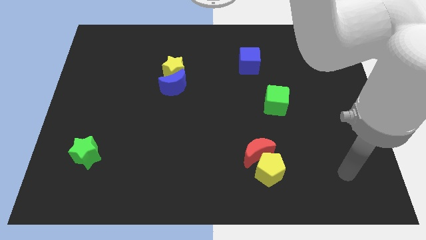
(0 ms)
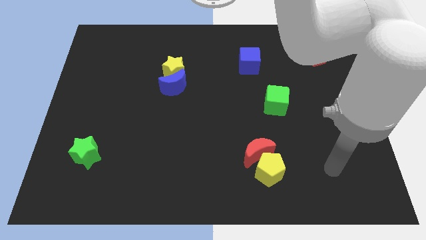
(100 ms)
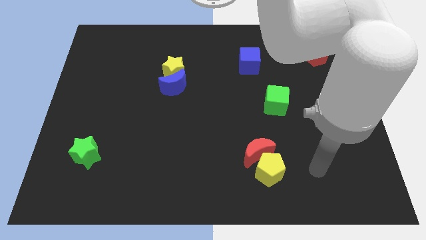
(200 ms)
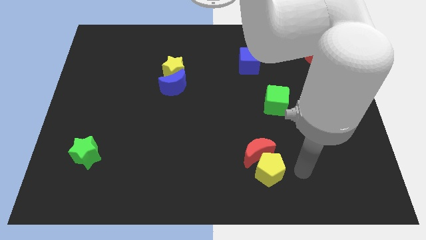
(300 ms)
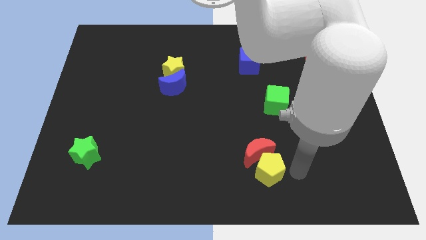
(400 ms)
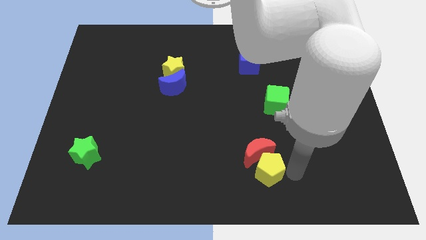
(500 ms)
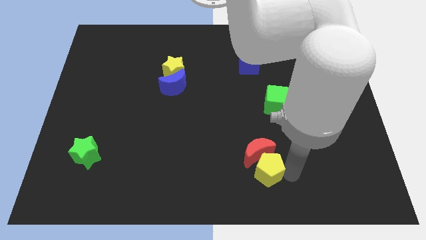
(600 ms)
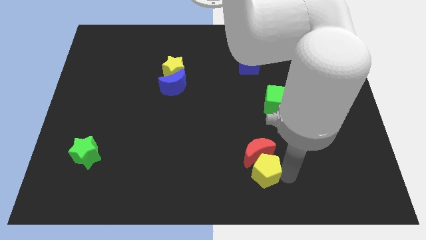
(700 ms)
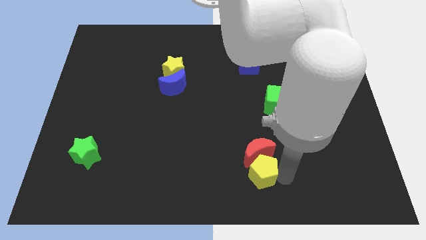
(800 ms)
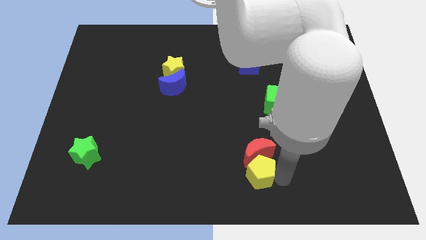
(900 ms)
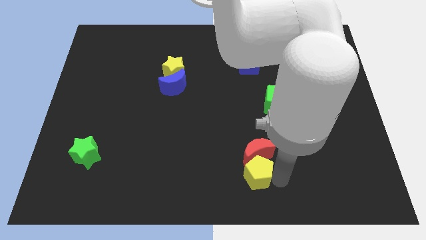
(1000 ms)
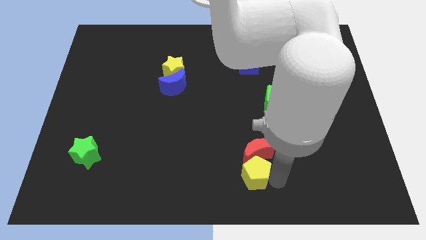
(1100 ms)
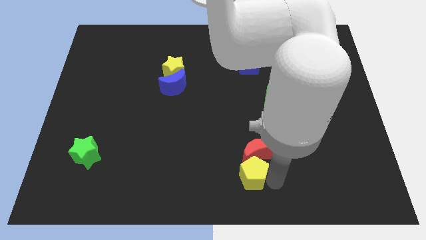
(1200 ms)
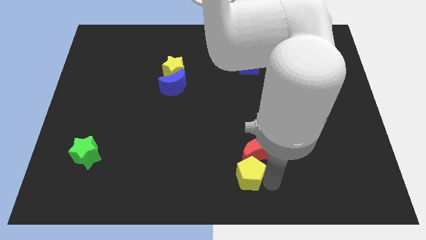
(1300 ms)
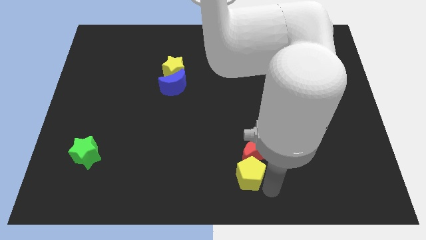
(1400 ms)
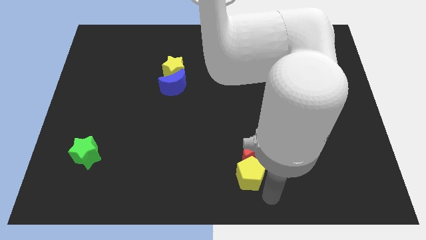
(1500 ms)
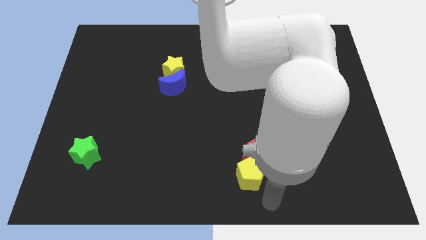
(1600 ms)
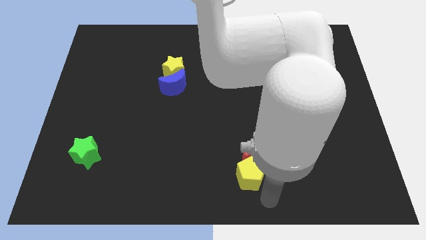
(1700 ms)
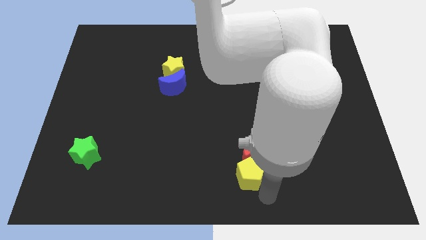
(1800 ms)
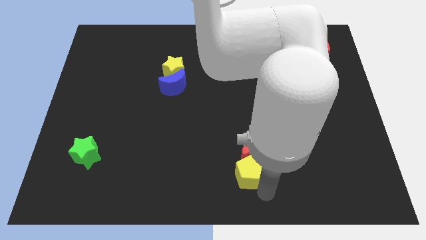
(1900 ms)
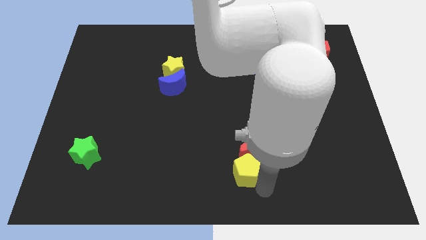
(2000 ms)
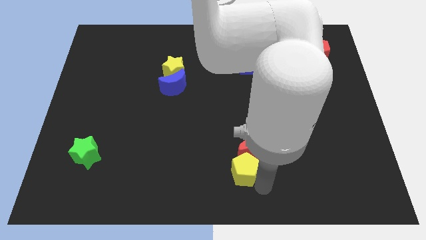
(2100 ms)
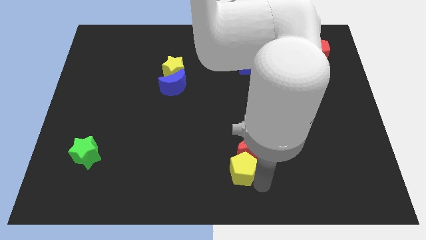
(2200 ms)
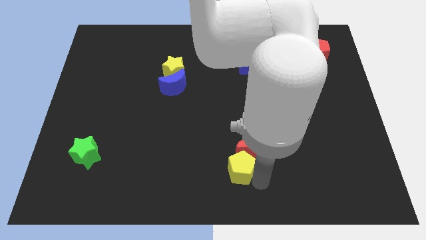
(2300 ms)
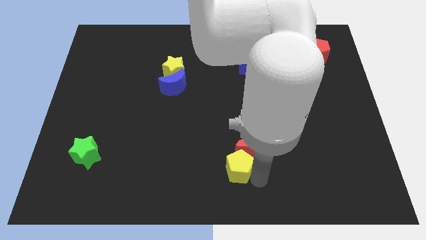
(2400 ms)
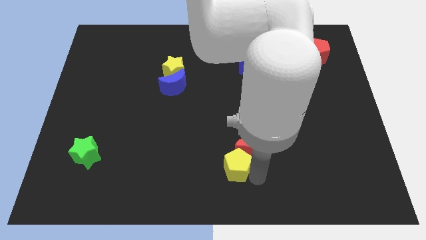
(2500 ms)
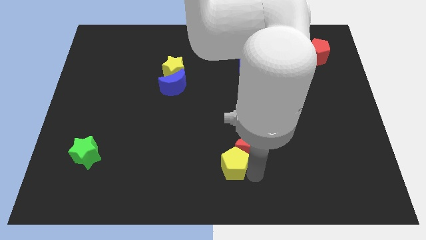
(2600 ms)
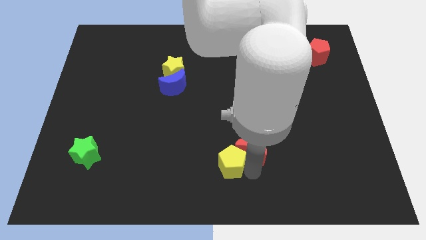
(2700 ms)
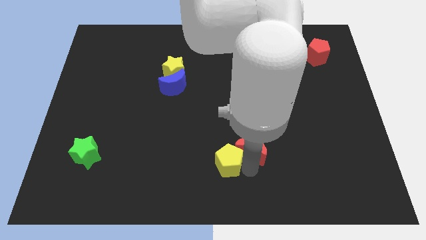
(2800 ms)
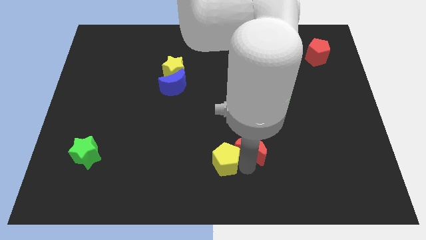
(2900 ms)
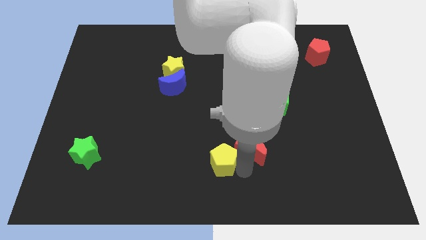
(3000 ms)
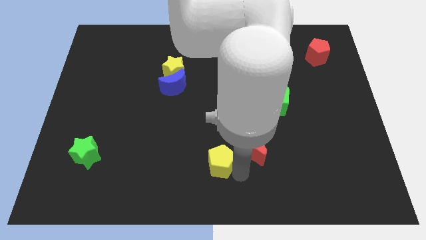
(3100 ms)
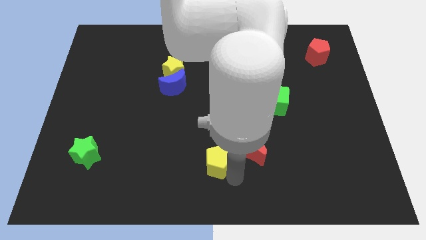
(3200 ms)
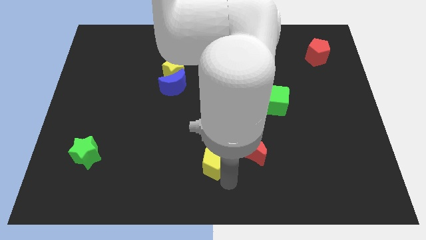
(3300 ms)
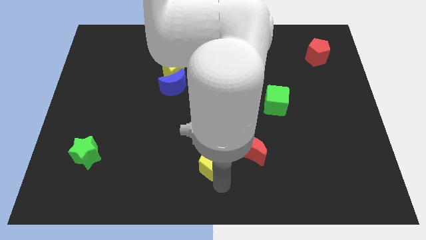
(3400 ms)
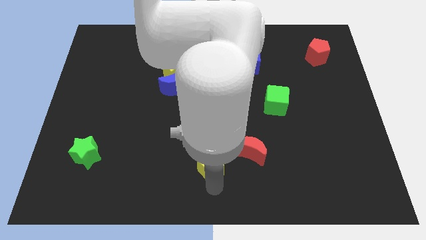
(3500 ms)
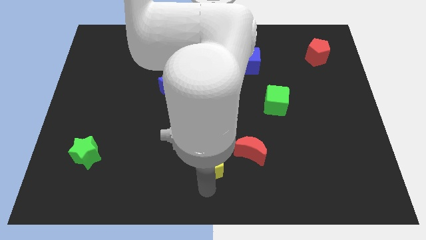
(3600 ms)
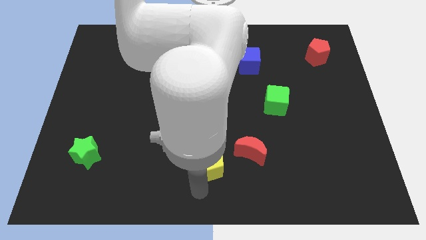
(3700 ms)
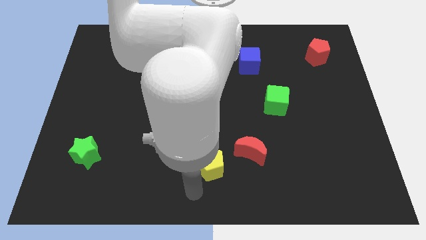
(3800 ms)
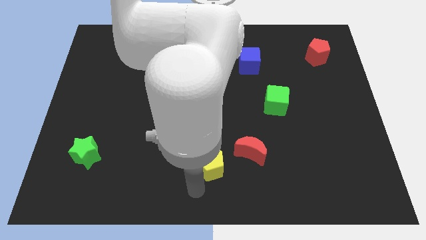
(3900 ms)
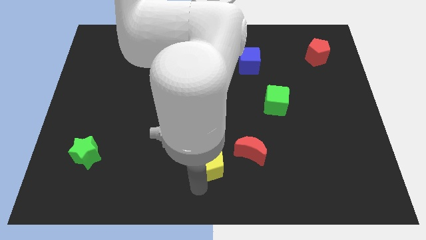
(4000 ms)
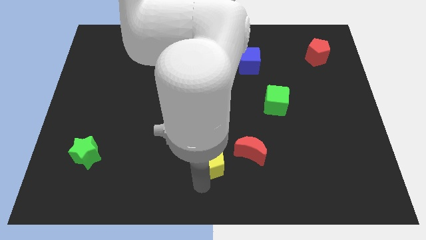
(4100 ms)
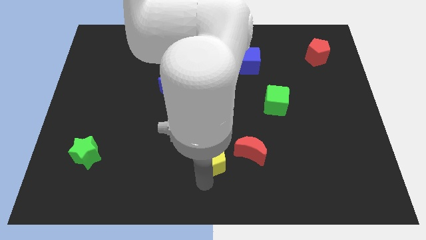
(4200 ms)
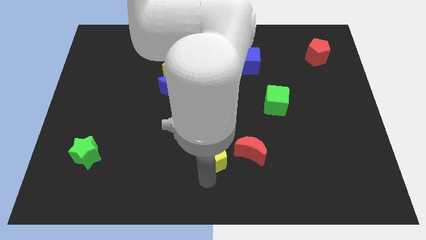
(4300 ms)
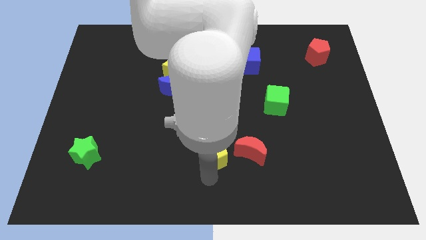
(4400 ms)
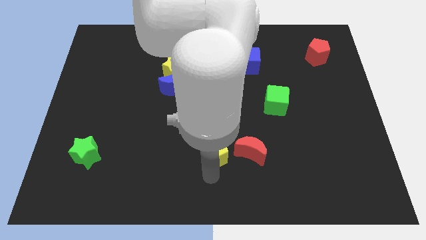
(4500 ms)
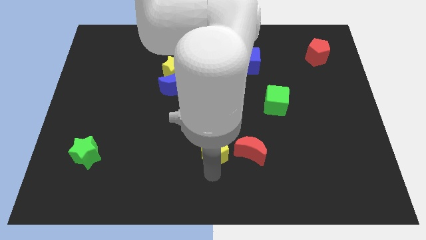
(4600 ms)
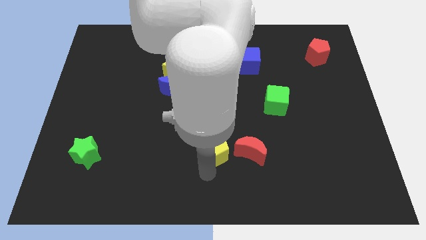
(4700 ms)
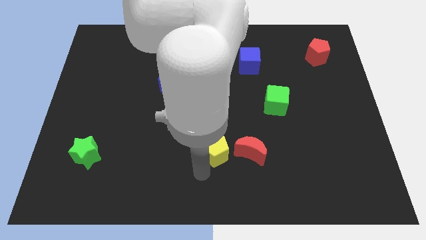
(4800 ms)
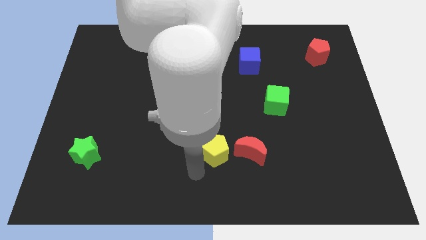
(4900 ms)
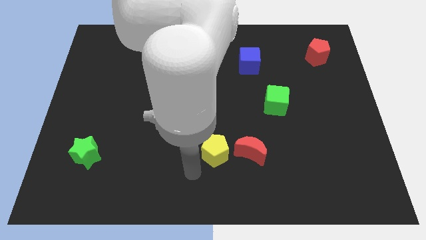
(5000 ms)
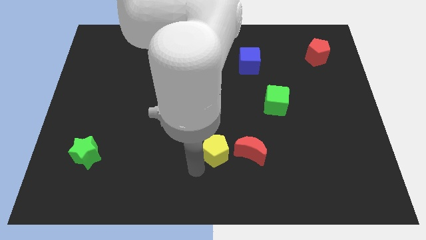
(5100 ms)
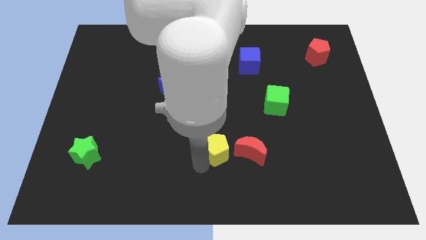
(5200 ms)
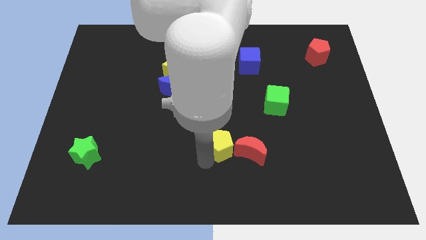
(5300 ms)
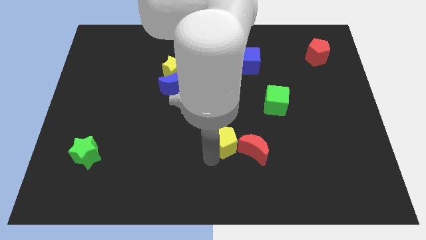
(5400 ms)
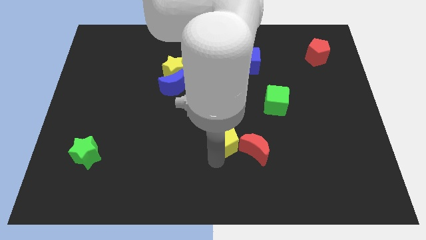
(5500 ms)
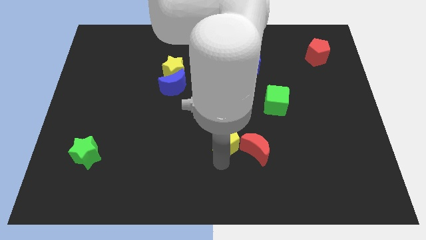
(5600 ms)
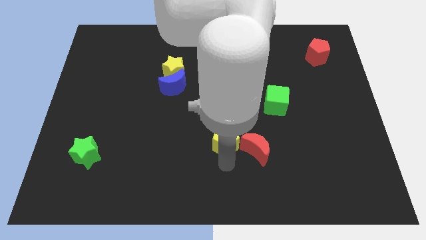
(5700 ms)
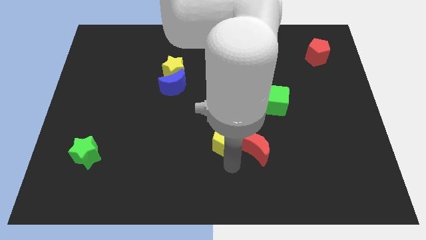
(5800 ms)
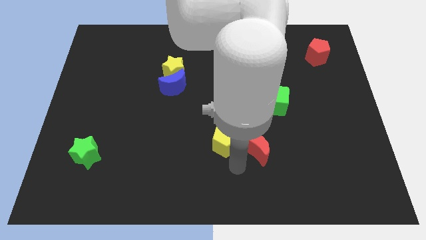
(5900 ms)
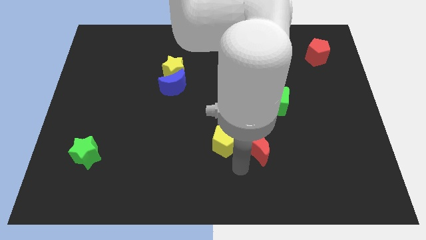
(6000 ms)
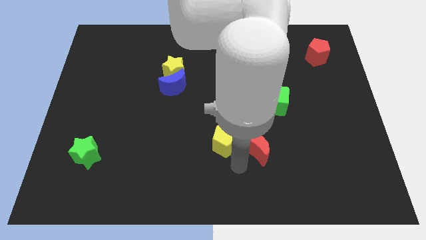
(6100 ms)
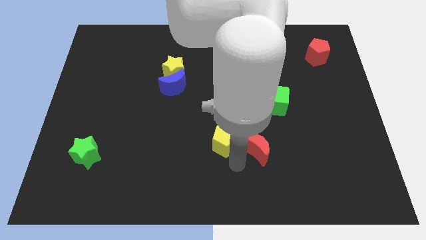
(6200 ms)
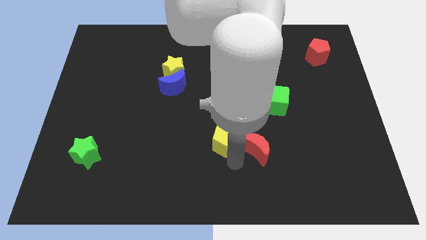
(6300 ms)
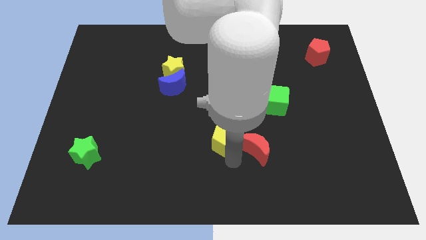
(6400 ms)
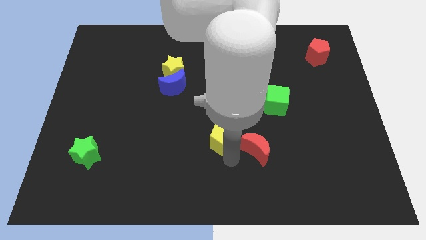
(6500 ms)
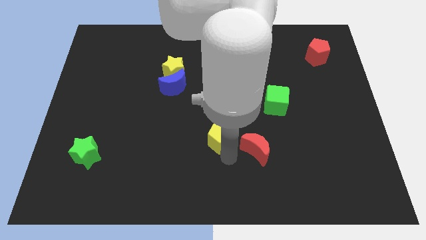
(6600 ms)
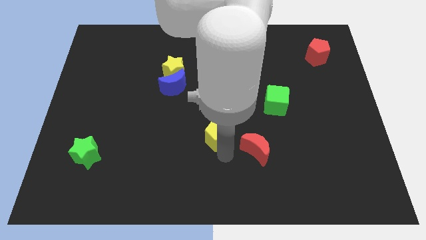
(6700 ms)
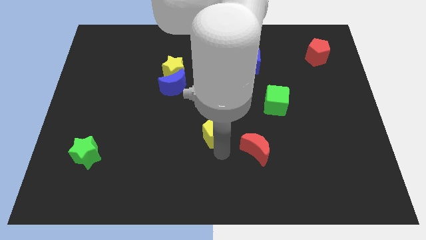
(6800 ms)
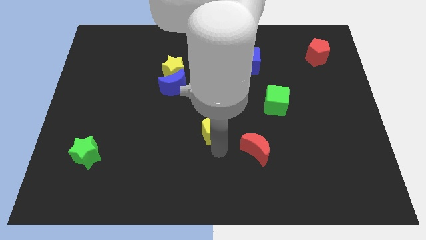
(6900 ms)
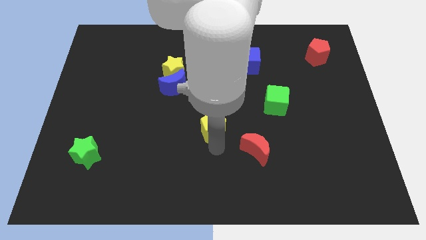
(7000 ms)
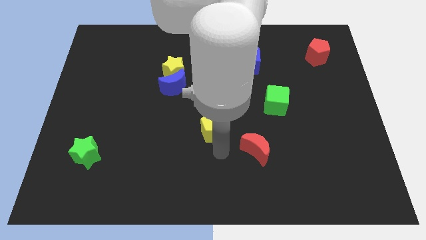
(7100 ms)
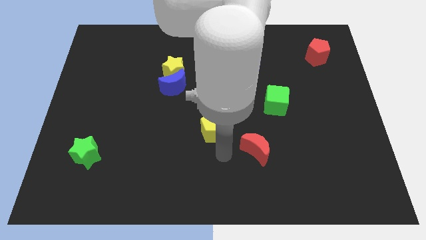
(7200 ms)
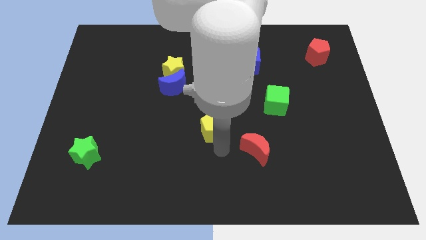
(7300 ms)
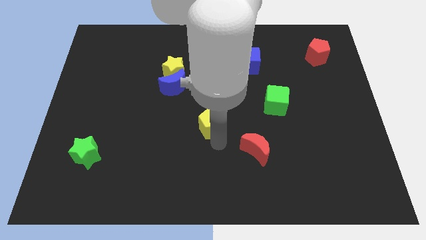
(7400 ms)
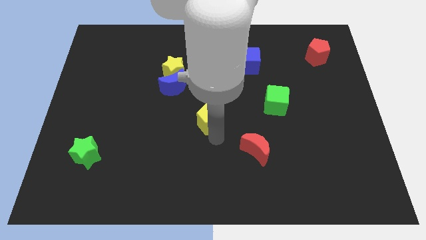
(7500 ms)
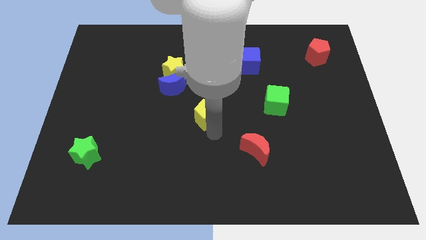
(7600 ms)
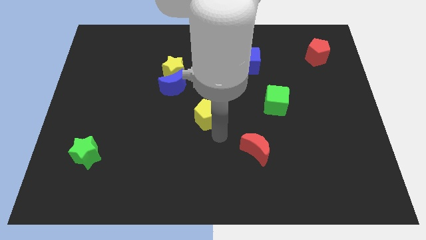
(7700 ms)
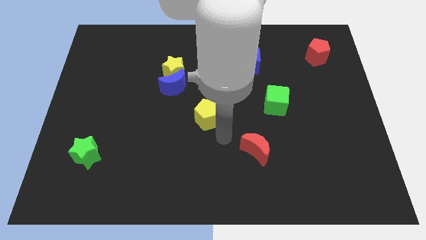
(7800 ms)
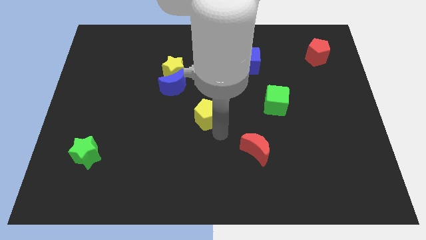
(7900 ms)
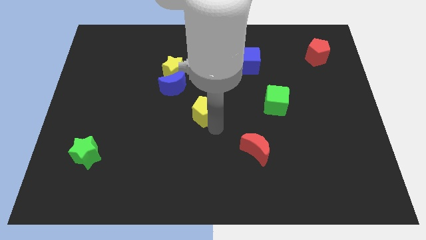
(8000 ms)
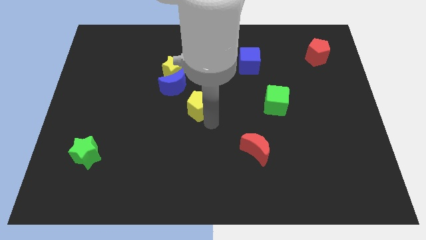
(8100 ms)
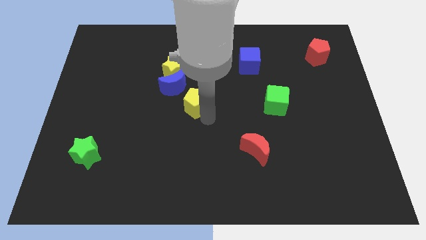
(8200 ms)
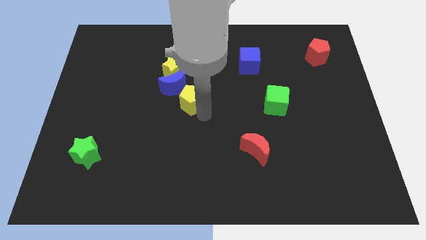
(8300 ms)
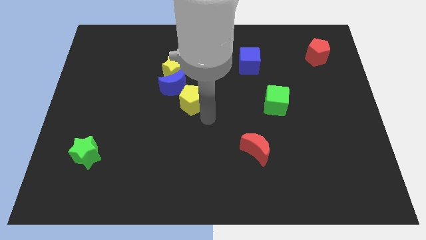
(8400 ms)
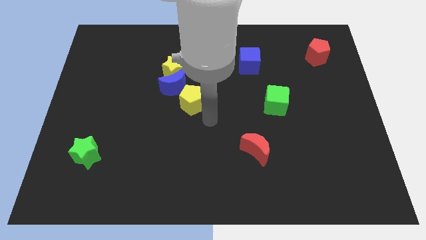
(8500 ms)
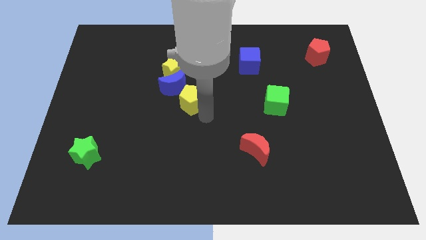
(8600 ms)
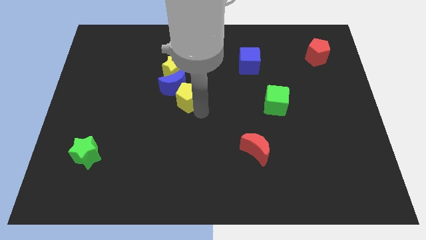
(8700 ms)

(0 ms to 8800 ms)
move the yellow pentagon next to the blue moon
